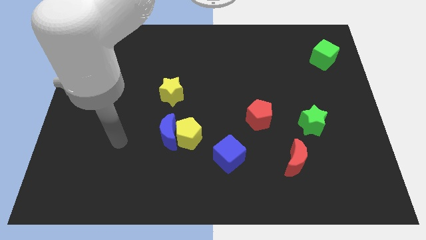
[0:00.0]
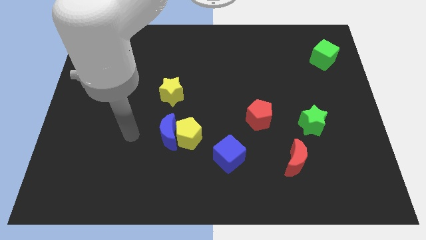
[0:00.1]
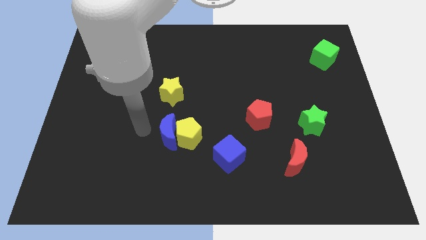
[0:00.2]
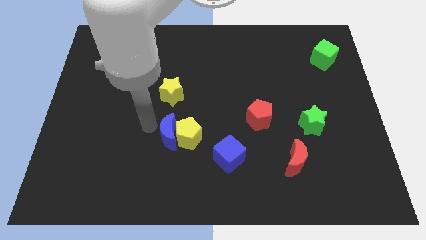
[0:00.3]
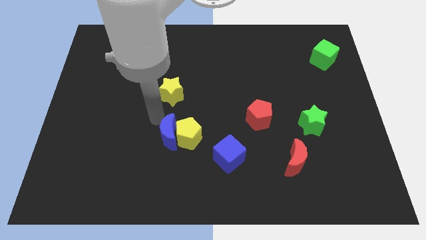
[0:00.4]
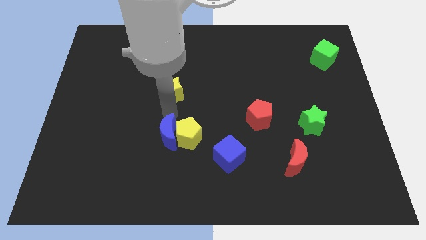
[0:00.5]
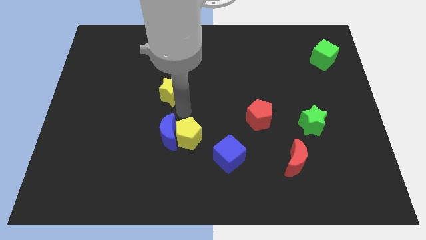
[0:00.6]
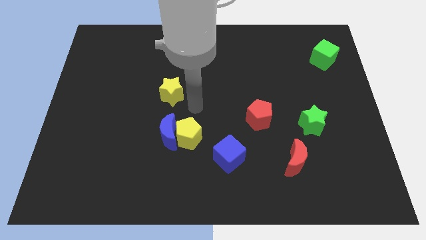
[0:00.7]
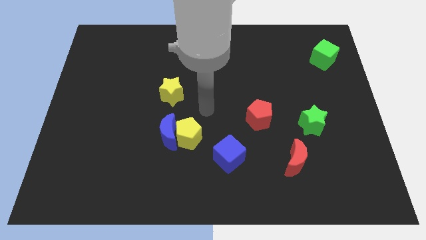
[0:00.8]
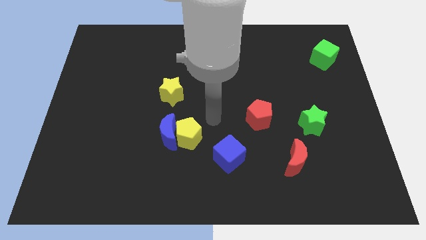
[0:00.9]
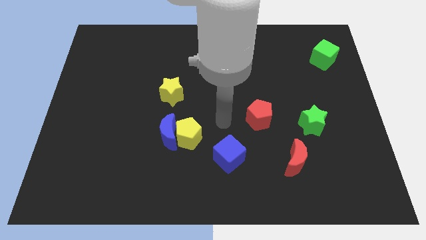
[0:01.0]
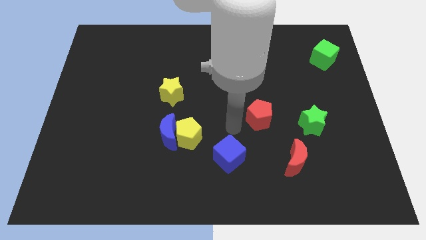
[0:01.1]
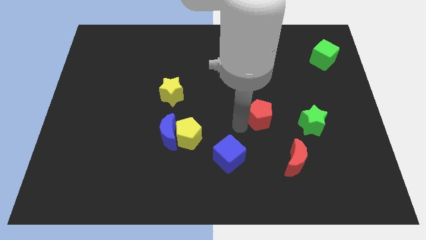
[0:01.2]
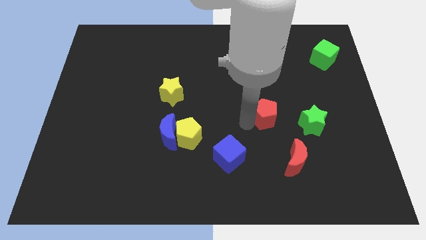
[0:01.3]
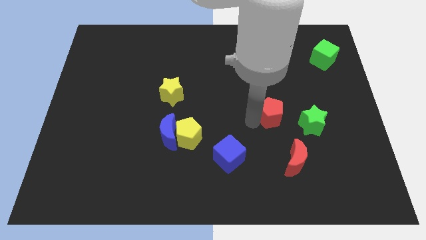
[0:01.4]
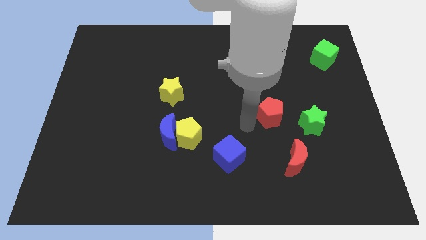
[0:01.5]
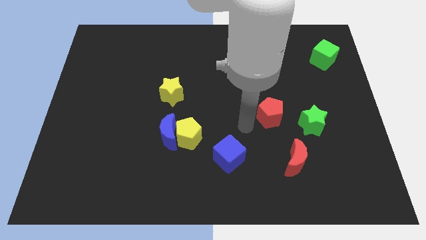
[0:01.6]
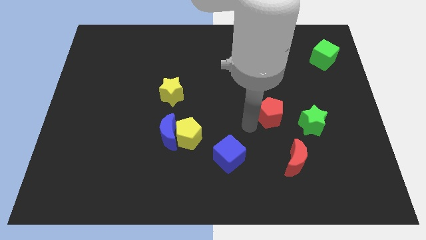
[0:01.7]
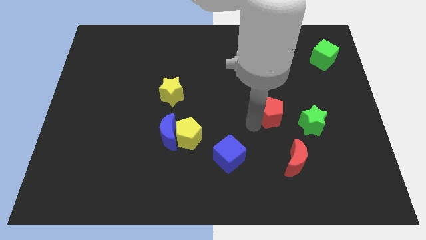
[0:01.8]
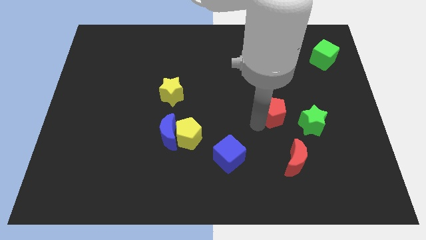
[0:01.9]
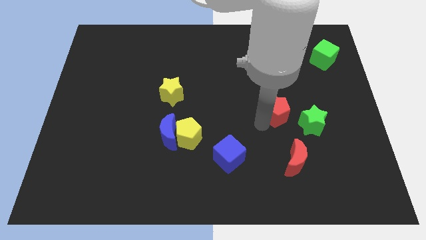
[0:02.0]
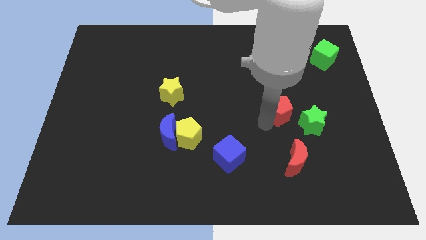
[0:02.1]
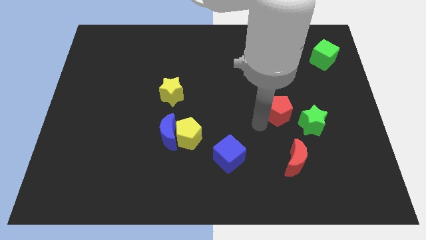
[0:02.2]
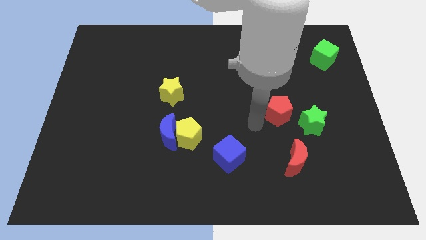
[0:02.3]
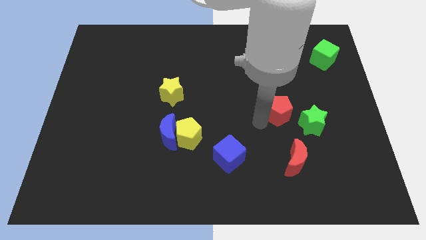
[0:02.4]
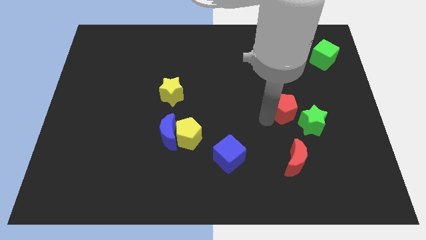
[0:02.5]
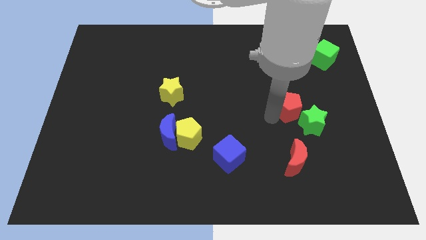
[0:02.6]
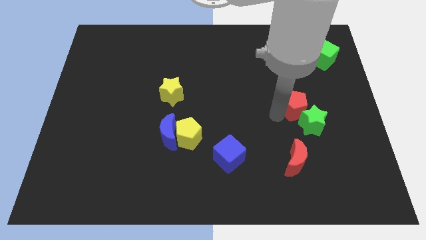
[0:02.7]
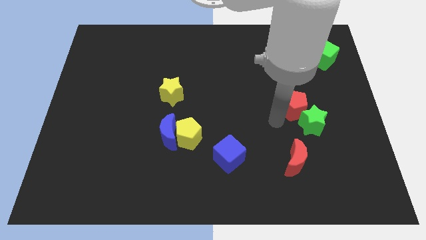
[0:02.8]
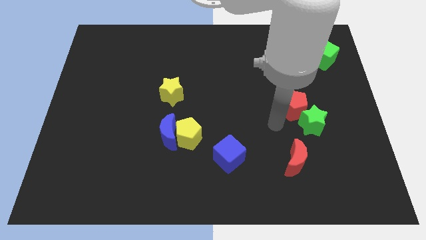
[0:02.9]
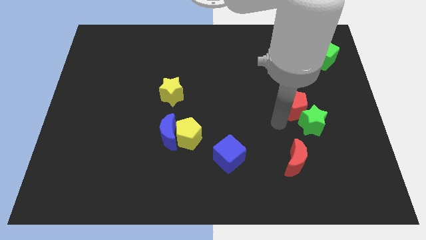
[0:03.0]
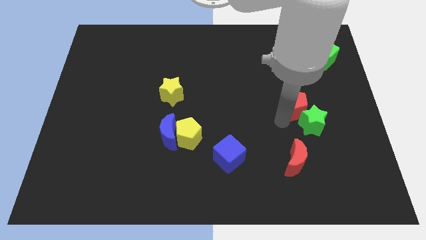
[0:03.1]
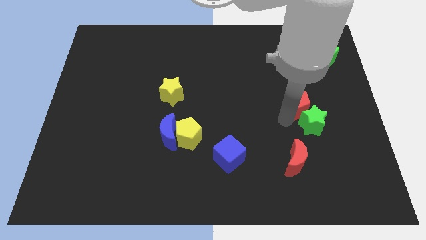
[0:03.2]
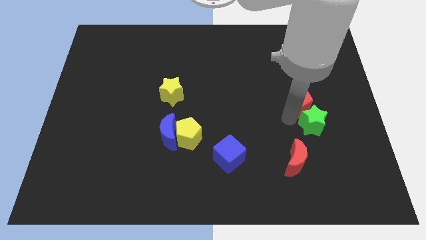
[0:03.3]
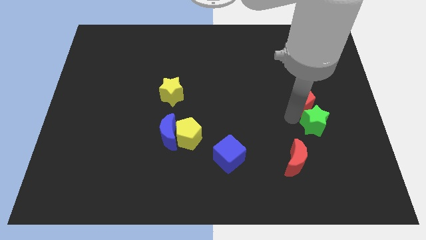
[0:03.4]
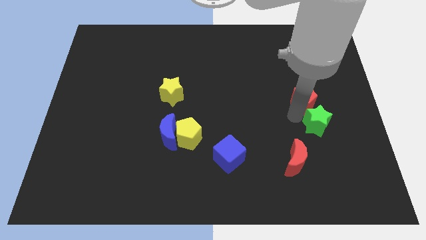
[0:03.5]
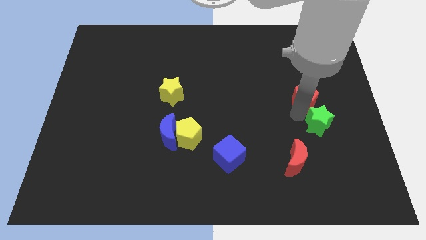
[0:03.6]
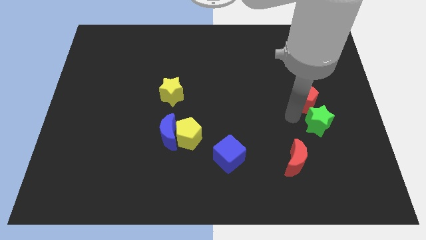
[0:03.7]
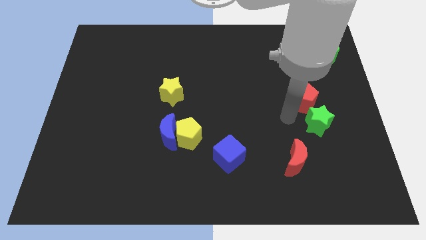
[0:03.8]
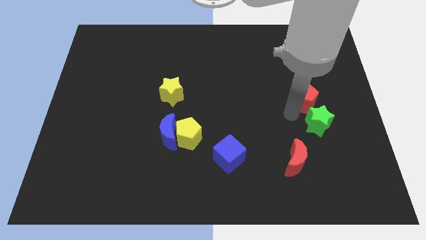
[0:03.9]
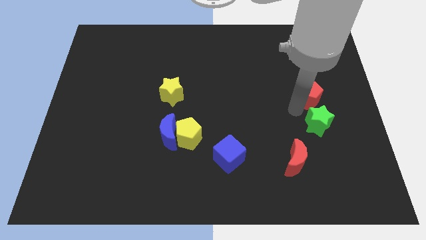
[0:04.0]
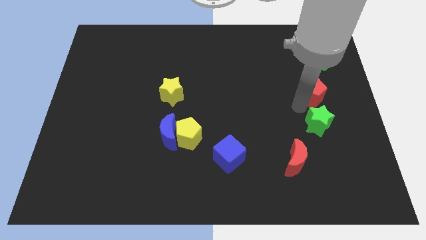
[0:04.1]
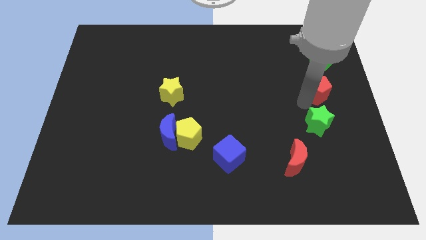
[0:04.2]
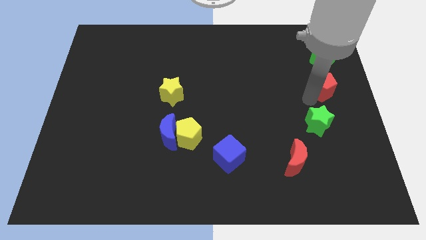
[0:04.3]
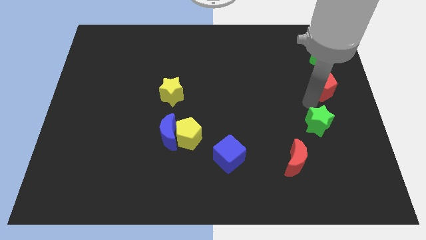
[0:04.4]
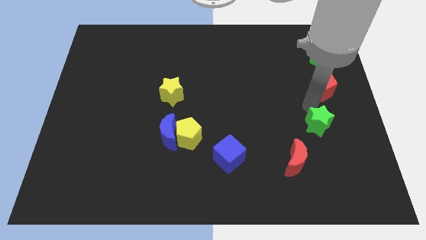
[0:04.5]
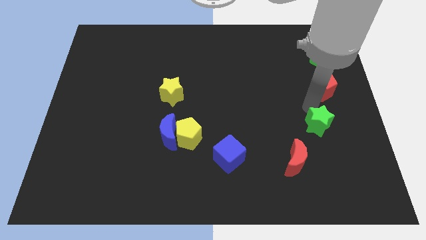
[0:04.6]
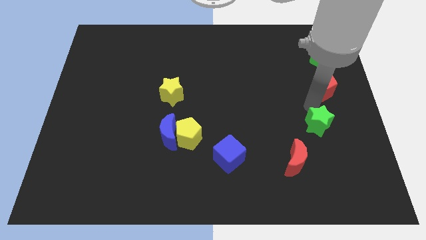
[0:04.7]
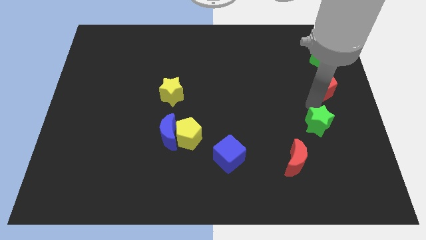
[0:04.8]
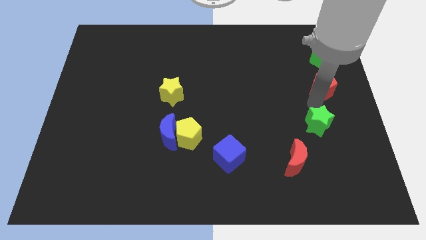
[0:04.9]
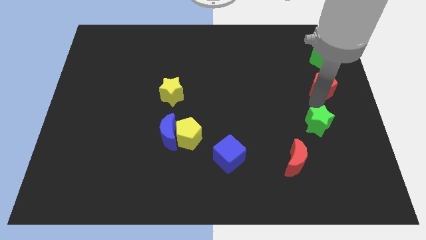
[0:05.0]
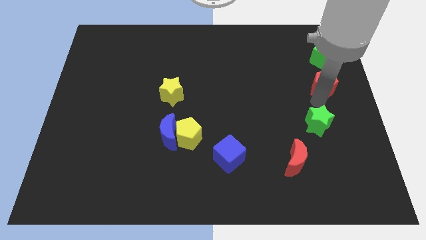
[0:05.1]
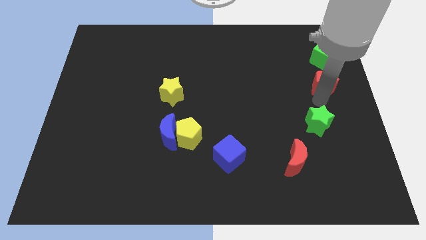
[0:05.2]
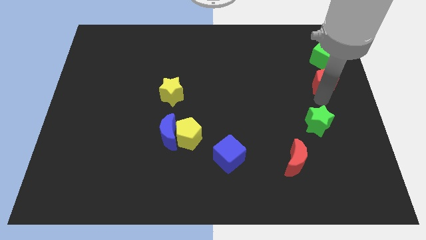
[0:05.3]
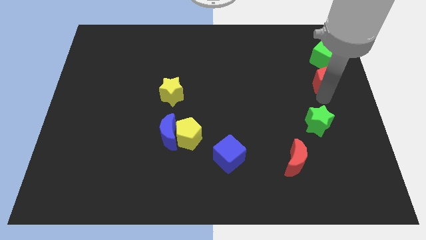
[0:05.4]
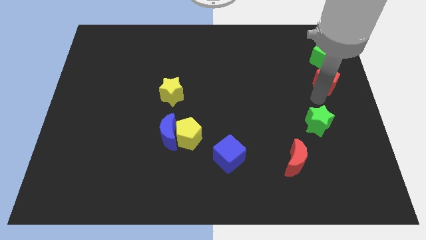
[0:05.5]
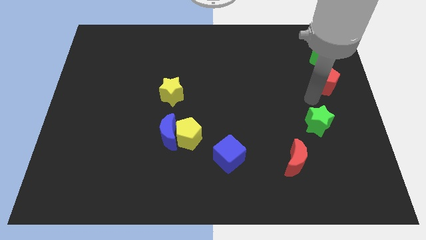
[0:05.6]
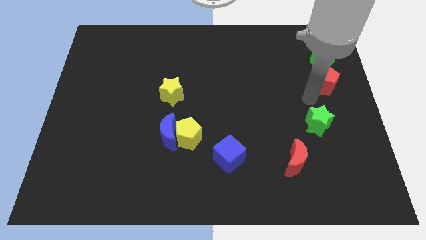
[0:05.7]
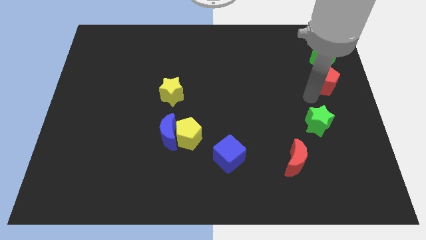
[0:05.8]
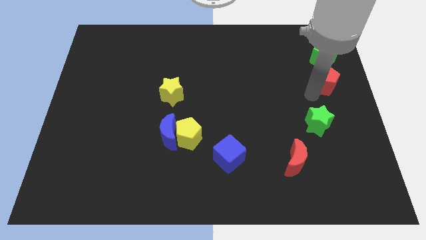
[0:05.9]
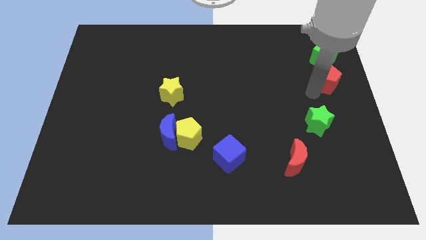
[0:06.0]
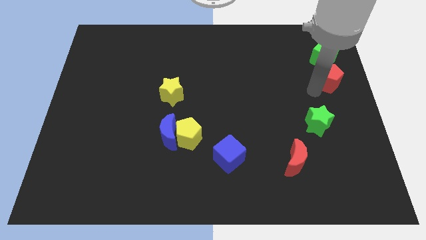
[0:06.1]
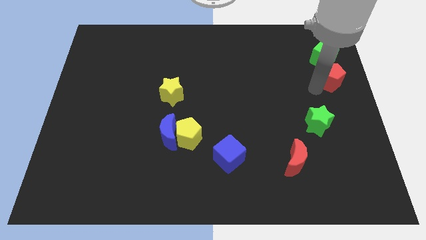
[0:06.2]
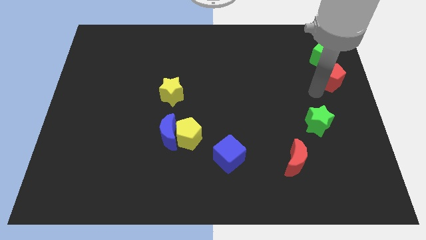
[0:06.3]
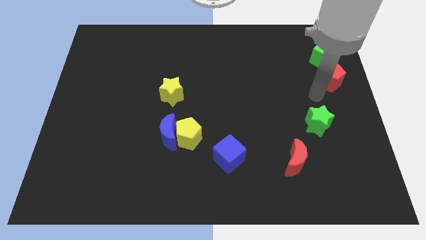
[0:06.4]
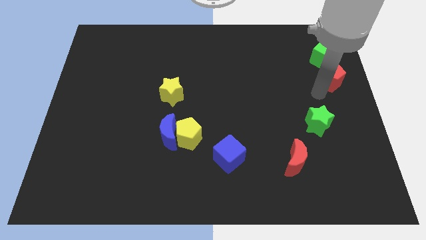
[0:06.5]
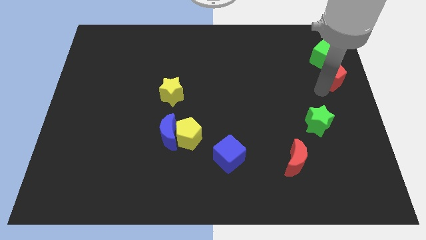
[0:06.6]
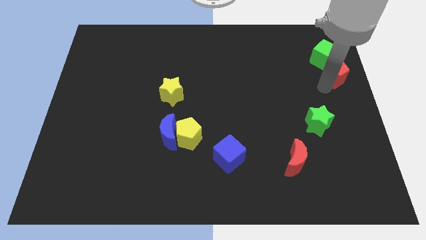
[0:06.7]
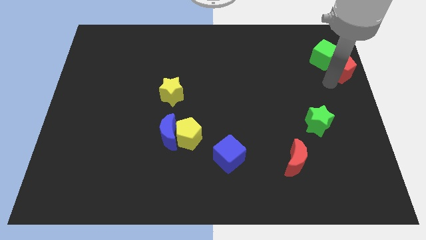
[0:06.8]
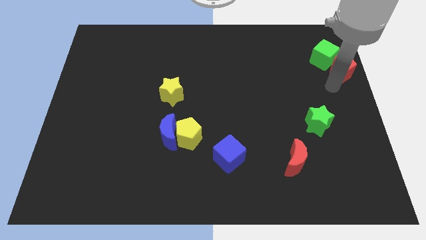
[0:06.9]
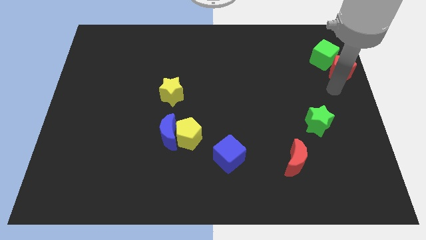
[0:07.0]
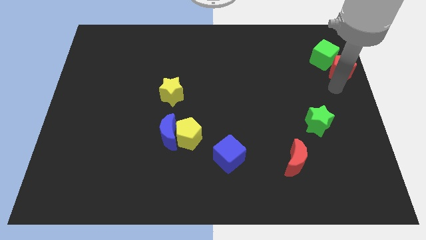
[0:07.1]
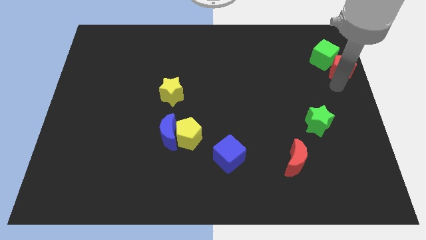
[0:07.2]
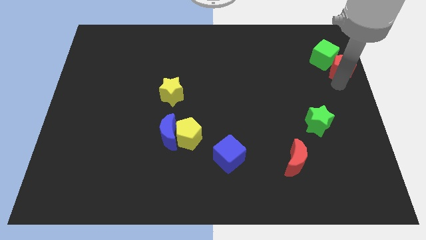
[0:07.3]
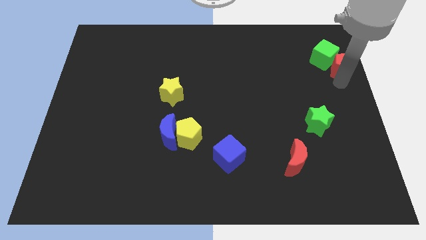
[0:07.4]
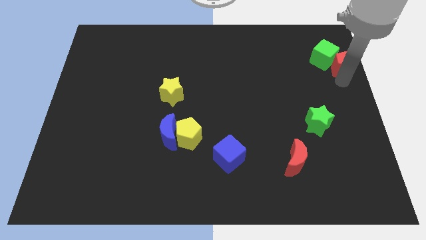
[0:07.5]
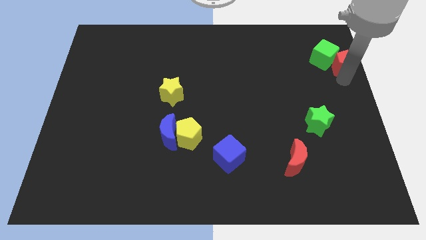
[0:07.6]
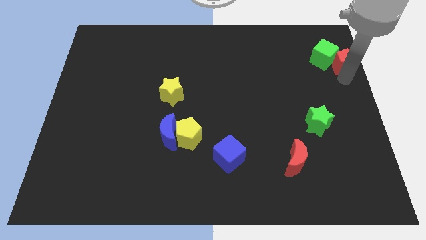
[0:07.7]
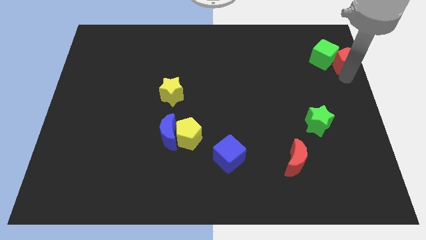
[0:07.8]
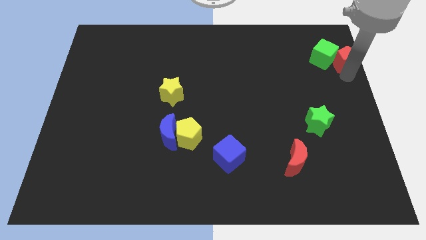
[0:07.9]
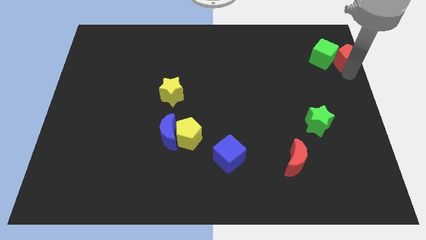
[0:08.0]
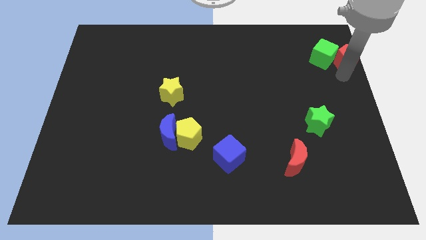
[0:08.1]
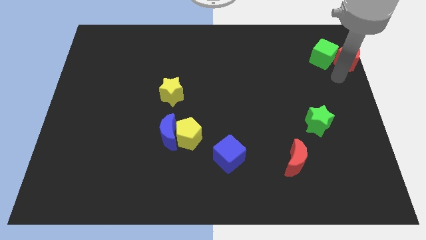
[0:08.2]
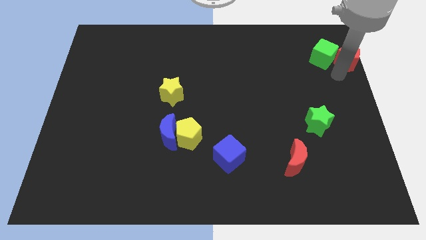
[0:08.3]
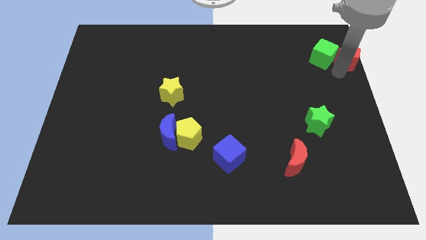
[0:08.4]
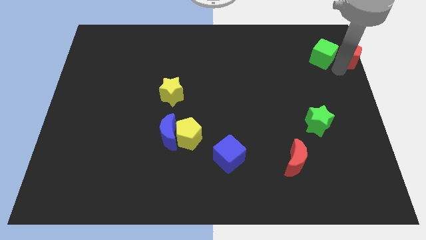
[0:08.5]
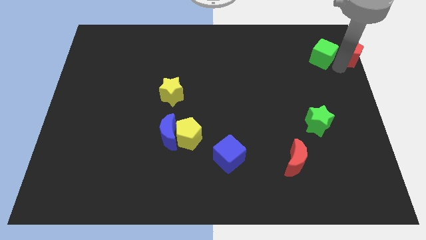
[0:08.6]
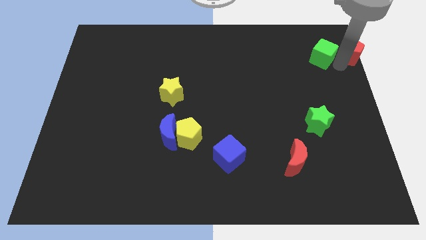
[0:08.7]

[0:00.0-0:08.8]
slide the red pentagon to the top right of the board
